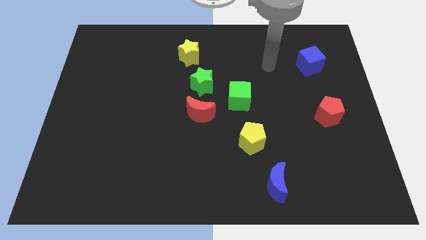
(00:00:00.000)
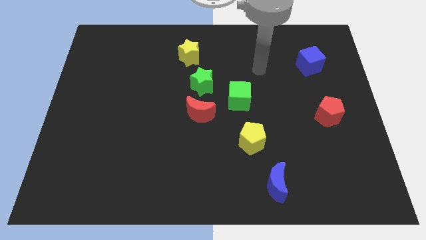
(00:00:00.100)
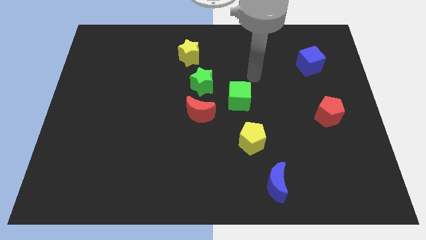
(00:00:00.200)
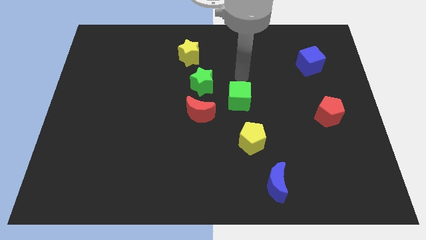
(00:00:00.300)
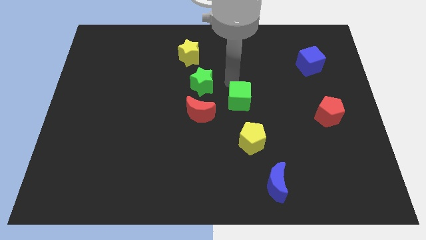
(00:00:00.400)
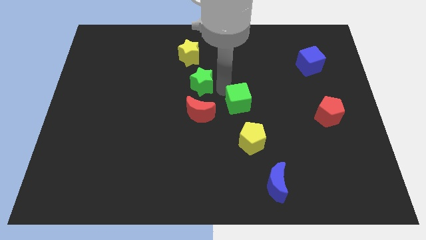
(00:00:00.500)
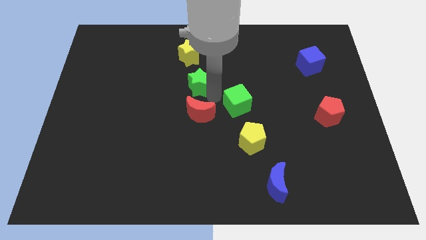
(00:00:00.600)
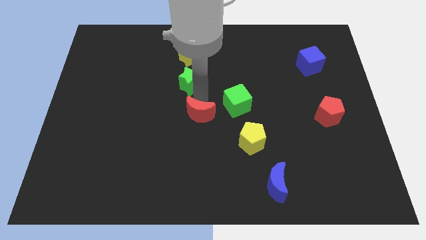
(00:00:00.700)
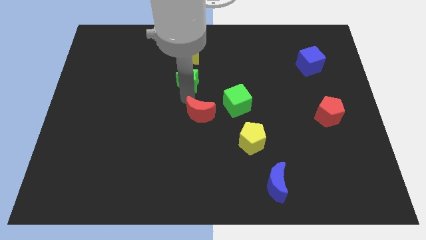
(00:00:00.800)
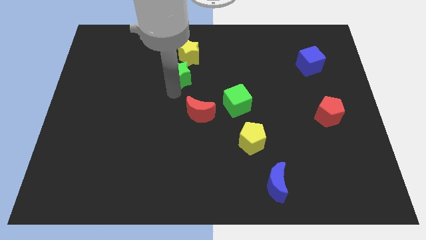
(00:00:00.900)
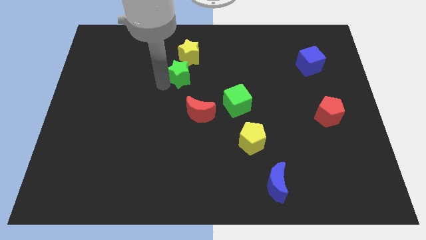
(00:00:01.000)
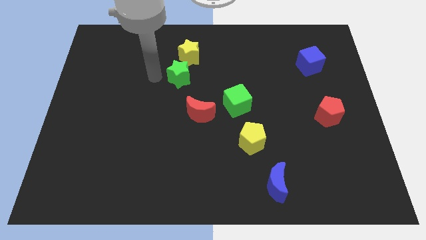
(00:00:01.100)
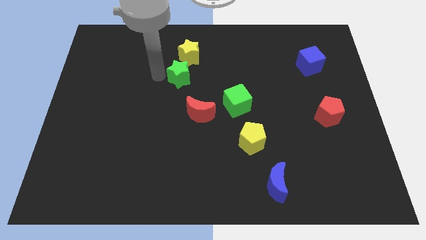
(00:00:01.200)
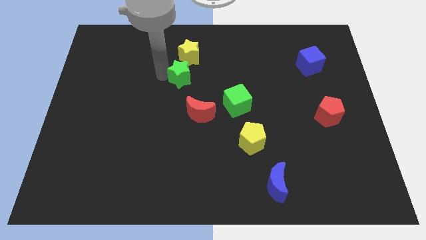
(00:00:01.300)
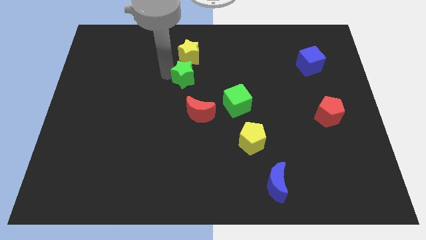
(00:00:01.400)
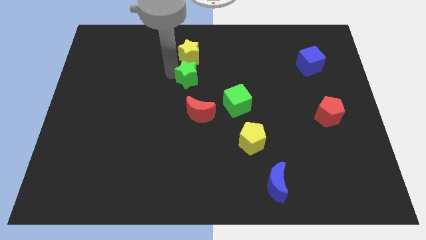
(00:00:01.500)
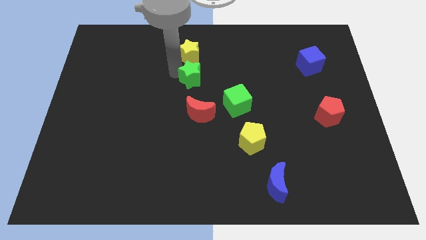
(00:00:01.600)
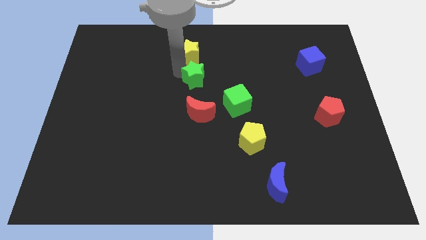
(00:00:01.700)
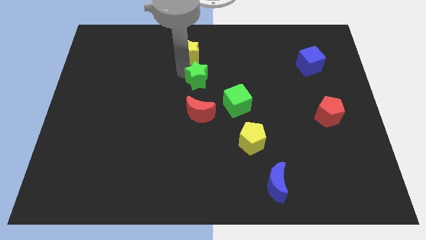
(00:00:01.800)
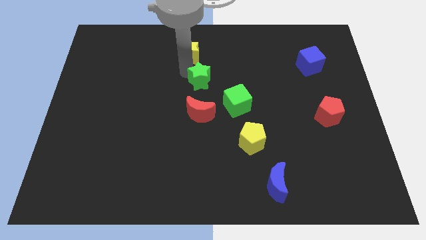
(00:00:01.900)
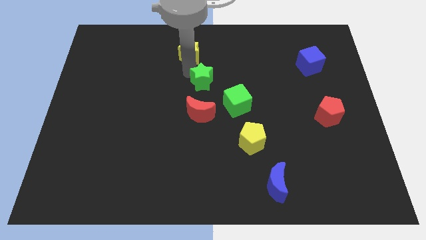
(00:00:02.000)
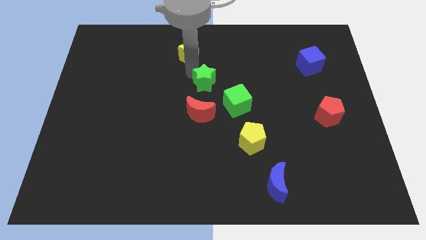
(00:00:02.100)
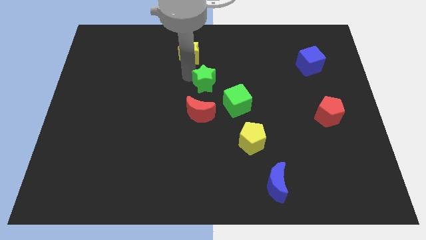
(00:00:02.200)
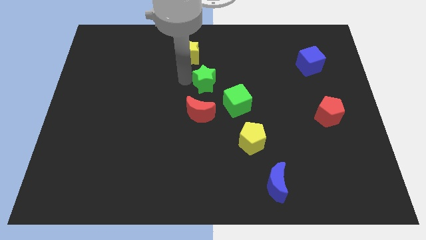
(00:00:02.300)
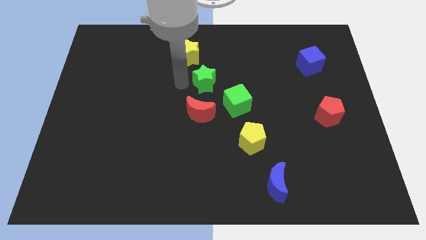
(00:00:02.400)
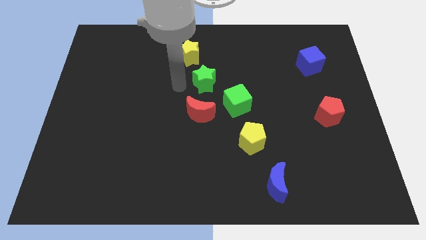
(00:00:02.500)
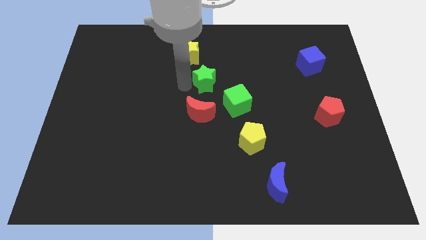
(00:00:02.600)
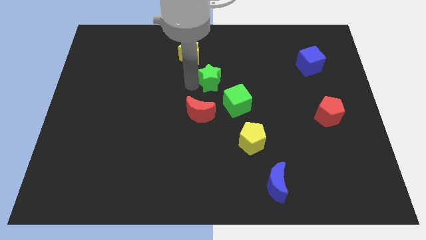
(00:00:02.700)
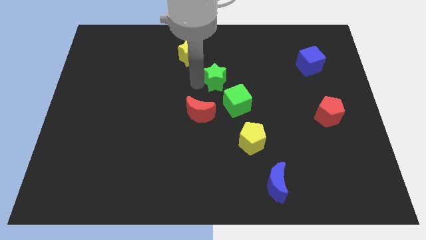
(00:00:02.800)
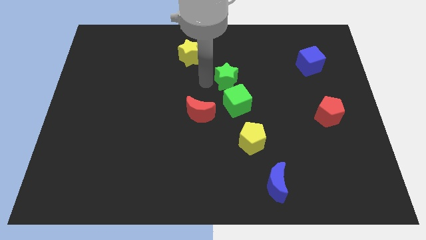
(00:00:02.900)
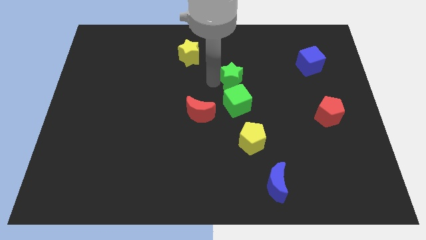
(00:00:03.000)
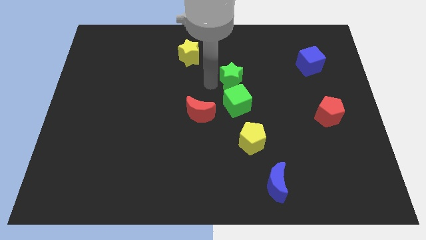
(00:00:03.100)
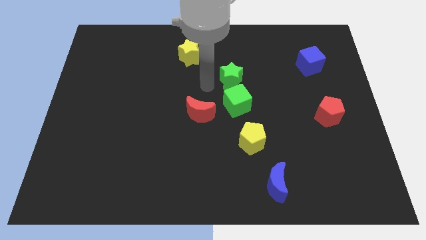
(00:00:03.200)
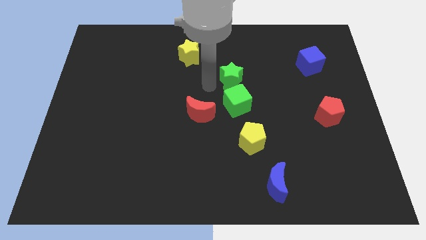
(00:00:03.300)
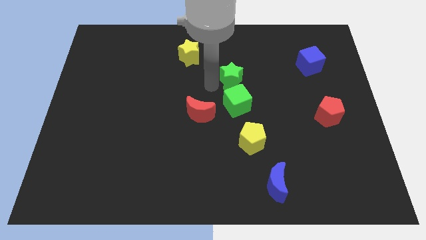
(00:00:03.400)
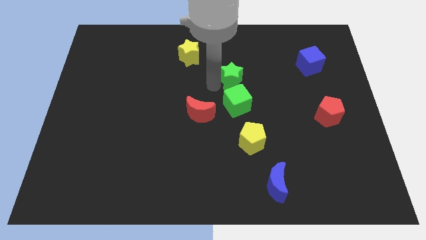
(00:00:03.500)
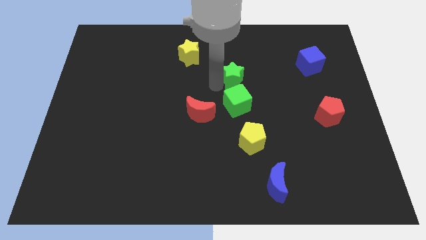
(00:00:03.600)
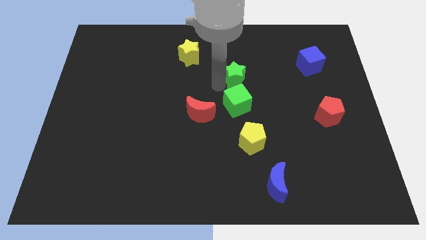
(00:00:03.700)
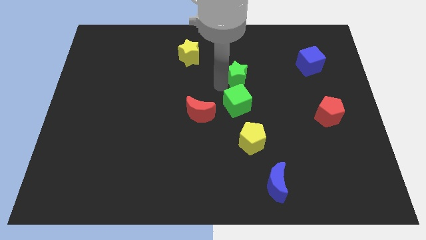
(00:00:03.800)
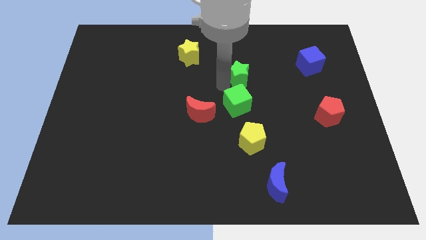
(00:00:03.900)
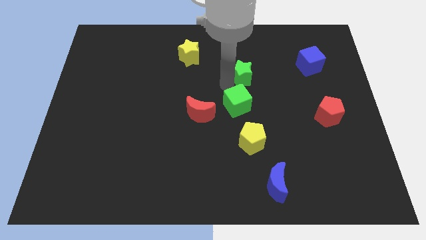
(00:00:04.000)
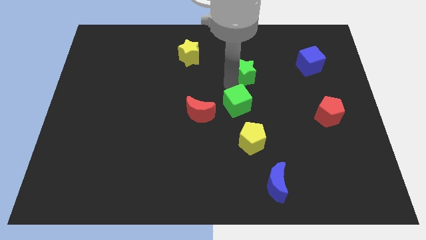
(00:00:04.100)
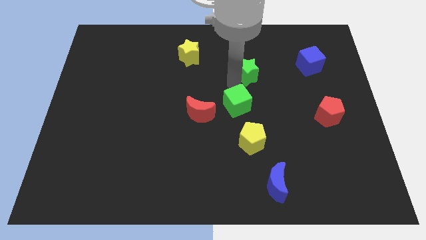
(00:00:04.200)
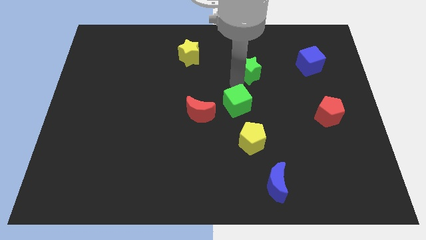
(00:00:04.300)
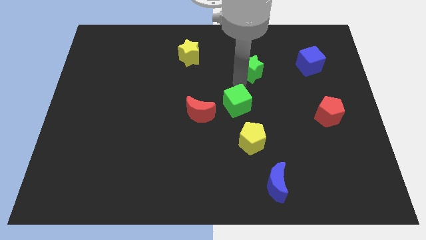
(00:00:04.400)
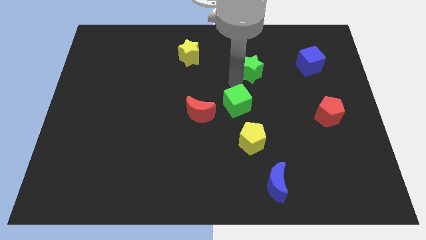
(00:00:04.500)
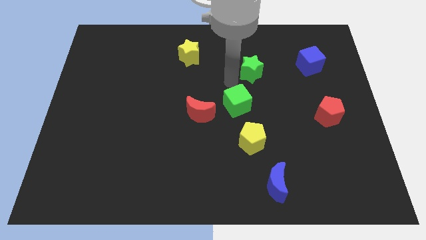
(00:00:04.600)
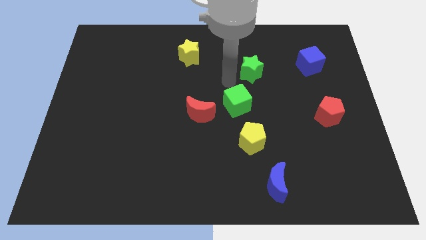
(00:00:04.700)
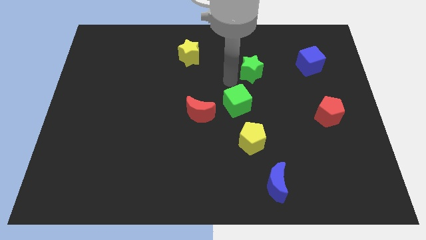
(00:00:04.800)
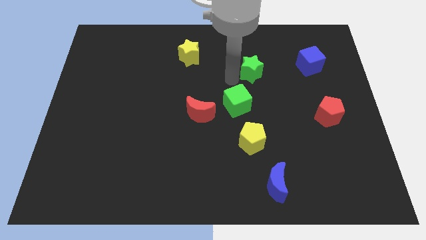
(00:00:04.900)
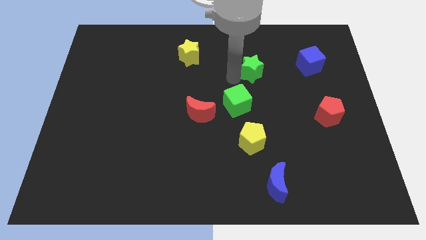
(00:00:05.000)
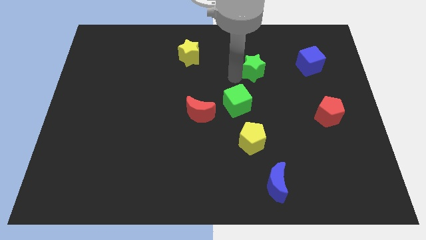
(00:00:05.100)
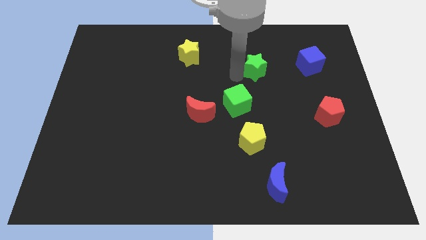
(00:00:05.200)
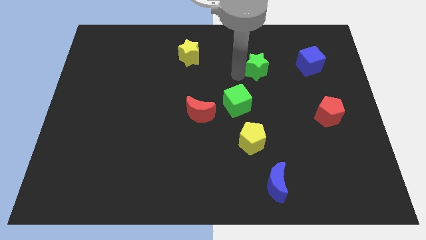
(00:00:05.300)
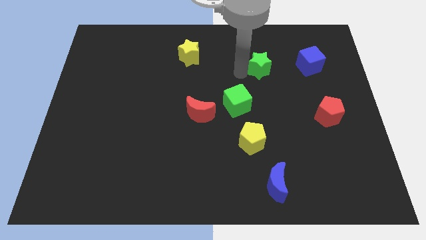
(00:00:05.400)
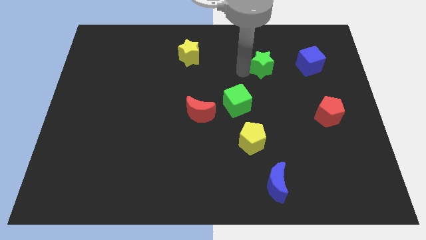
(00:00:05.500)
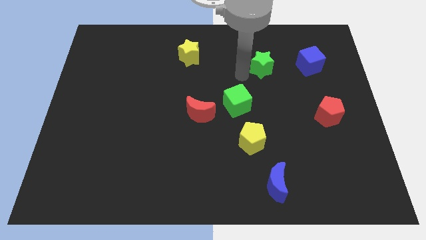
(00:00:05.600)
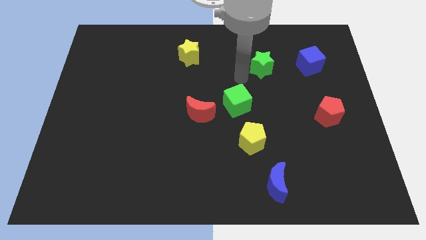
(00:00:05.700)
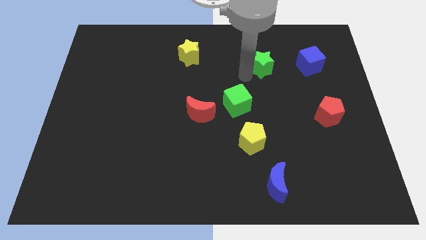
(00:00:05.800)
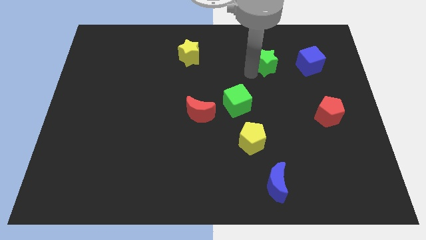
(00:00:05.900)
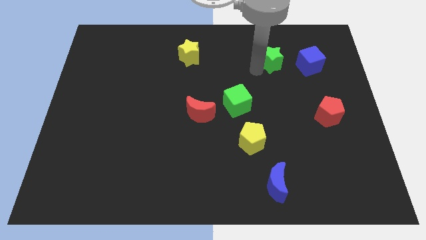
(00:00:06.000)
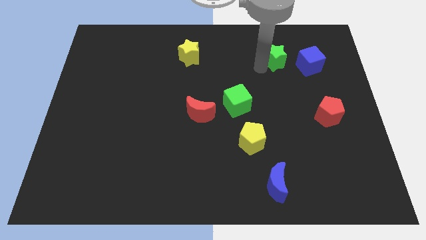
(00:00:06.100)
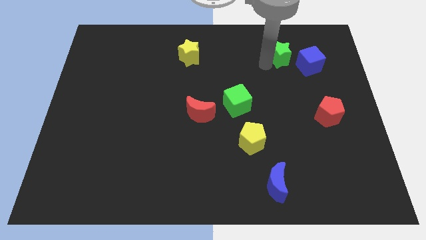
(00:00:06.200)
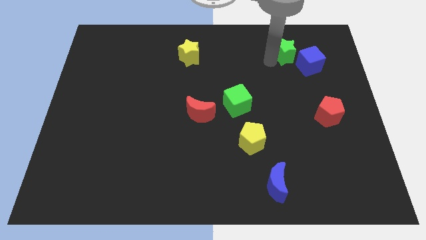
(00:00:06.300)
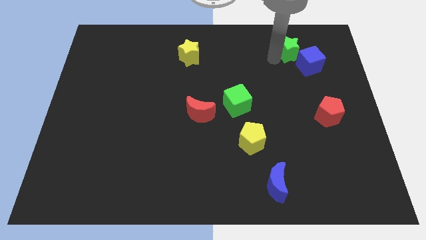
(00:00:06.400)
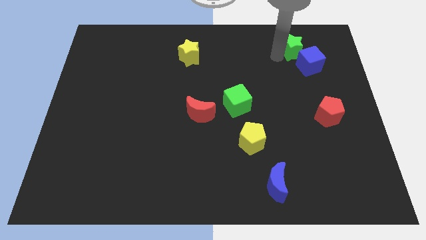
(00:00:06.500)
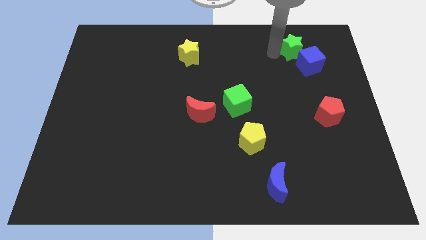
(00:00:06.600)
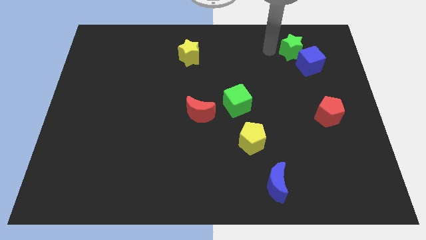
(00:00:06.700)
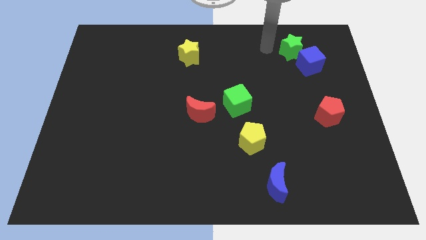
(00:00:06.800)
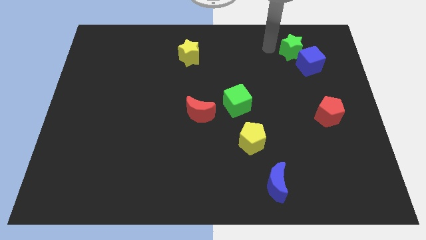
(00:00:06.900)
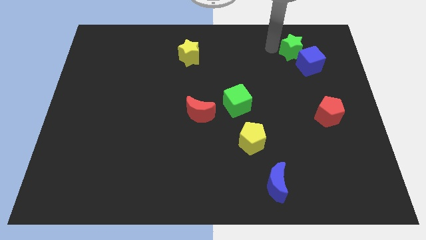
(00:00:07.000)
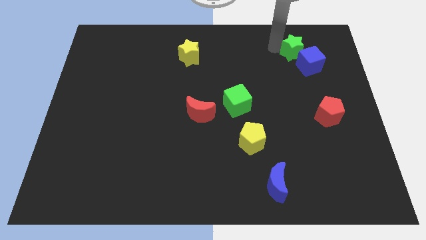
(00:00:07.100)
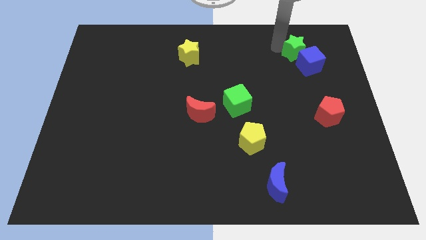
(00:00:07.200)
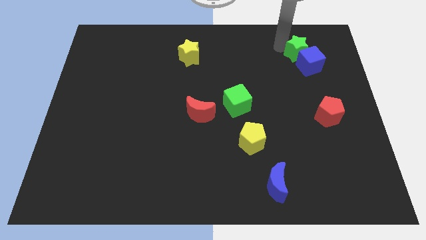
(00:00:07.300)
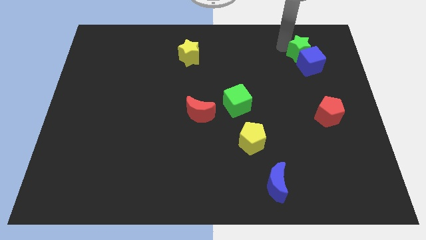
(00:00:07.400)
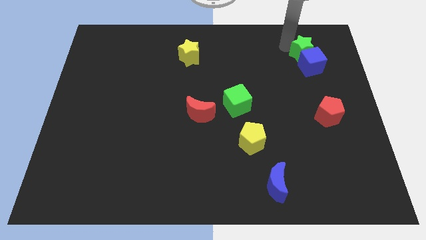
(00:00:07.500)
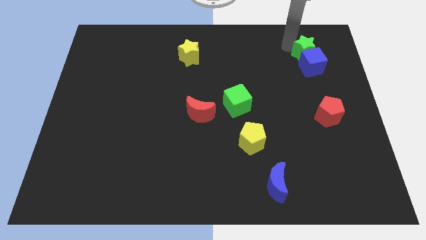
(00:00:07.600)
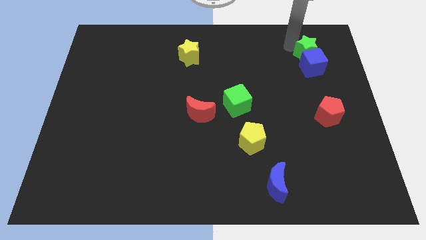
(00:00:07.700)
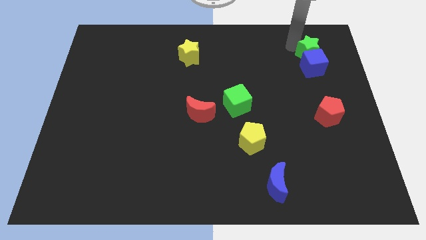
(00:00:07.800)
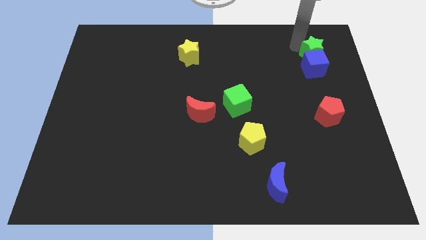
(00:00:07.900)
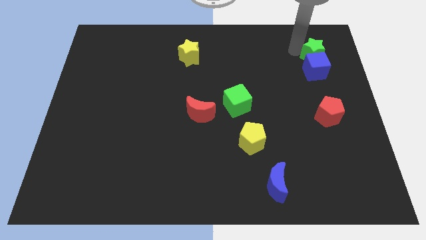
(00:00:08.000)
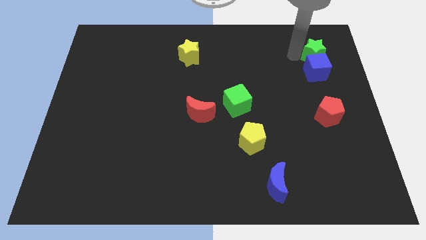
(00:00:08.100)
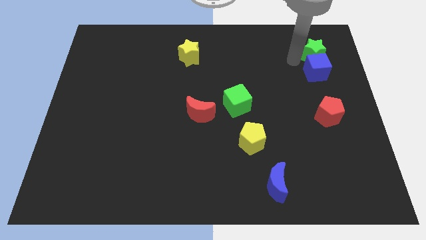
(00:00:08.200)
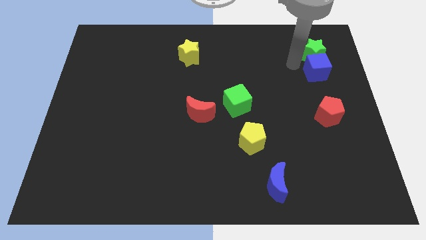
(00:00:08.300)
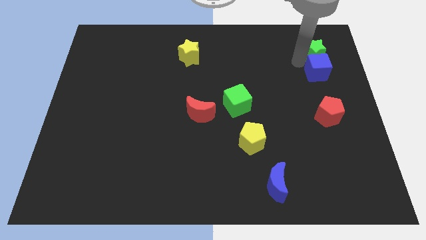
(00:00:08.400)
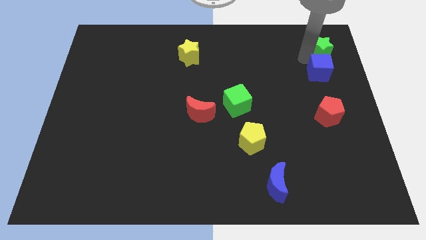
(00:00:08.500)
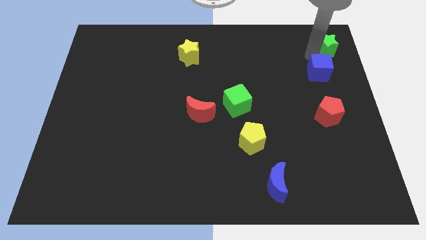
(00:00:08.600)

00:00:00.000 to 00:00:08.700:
put the green star to the top right of the board
